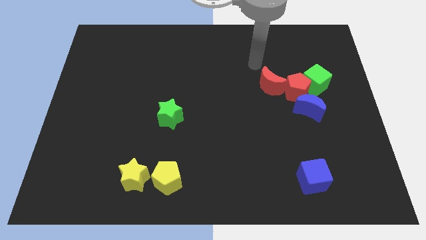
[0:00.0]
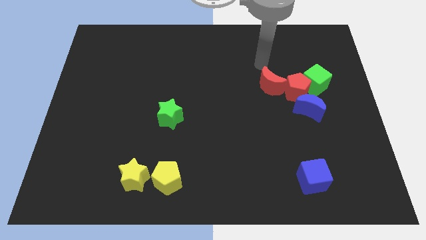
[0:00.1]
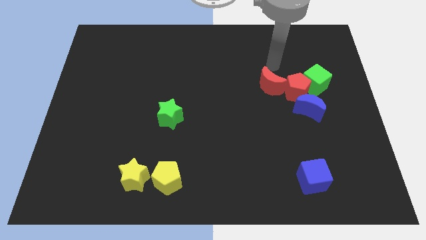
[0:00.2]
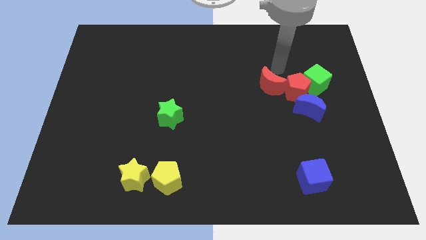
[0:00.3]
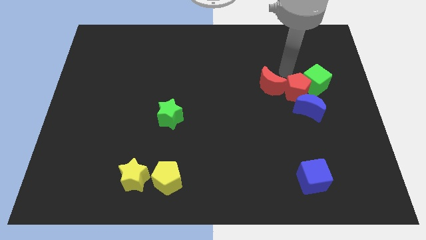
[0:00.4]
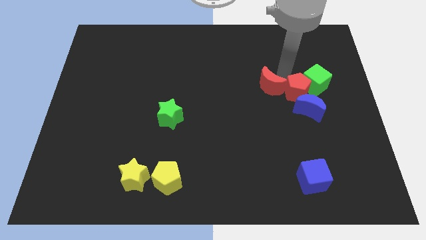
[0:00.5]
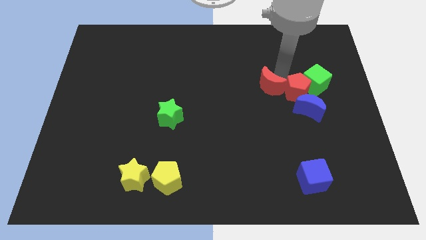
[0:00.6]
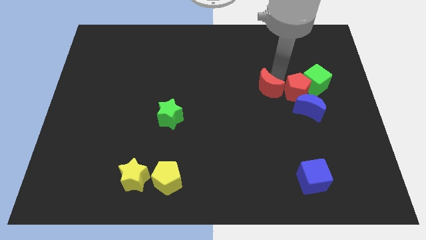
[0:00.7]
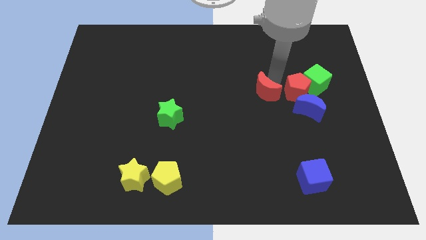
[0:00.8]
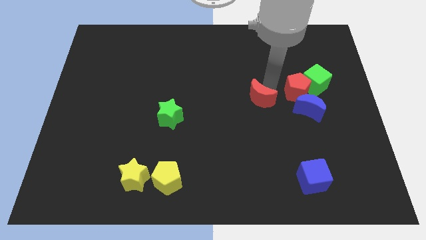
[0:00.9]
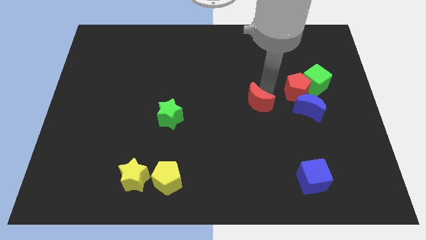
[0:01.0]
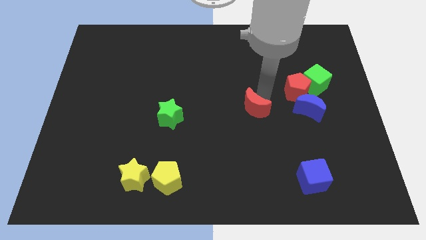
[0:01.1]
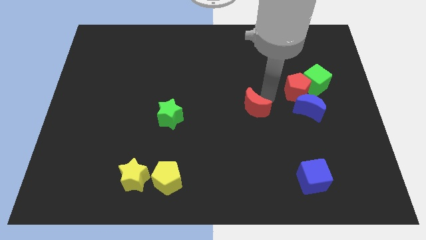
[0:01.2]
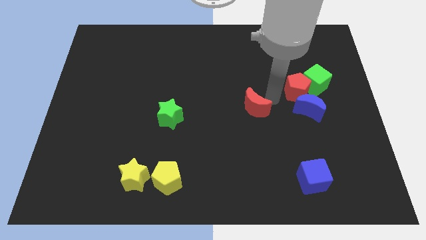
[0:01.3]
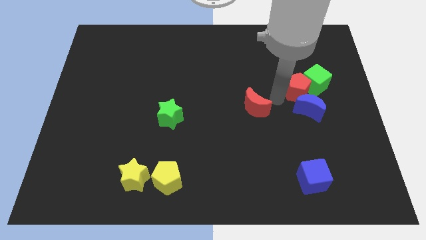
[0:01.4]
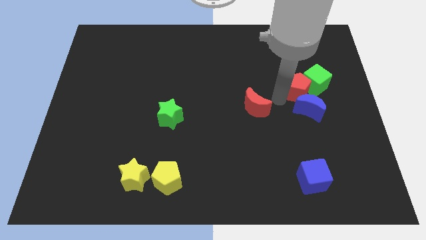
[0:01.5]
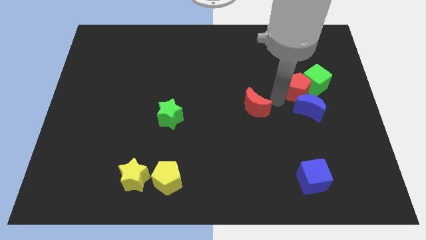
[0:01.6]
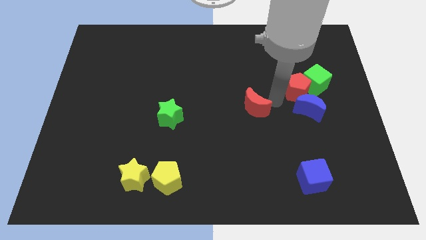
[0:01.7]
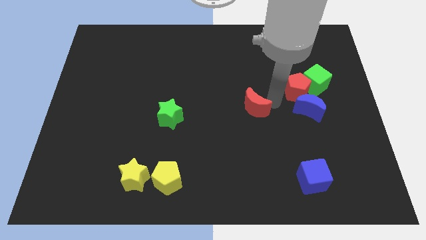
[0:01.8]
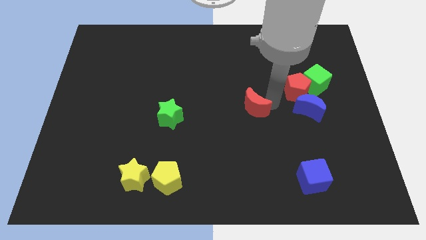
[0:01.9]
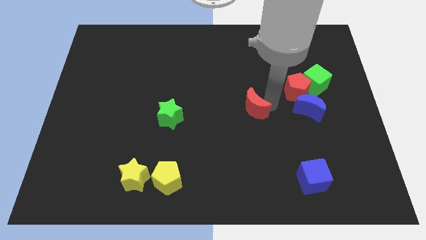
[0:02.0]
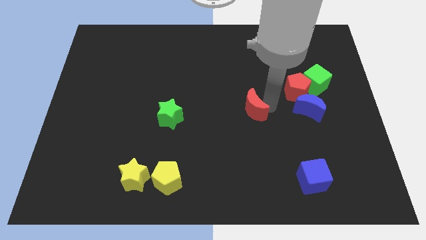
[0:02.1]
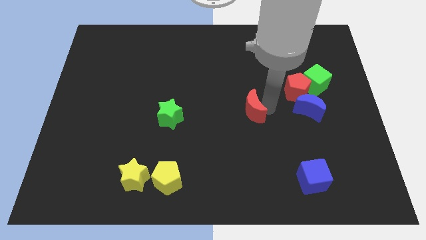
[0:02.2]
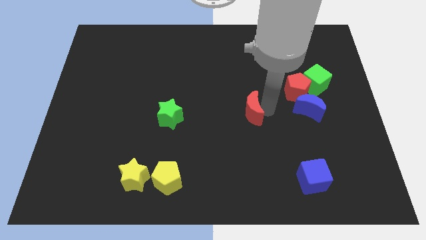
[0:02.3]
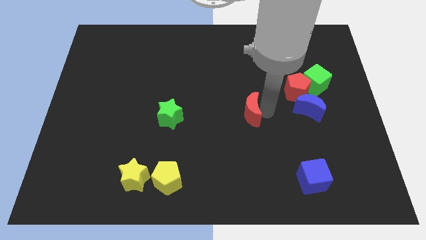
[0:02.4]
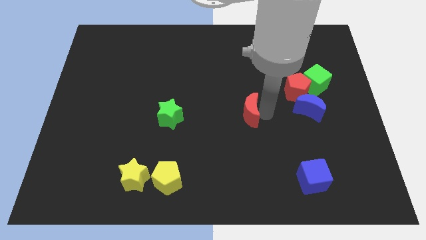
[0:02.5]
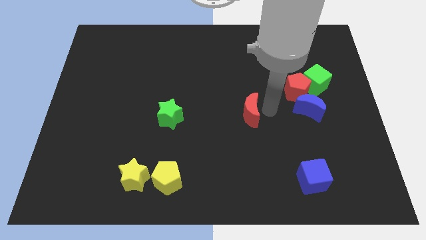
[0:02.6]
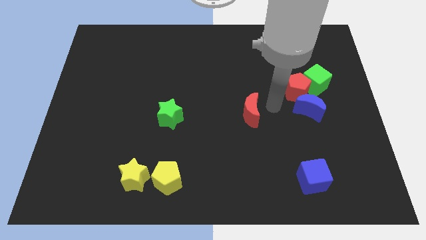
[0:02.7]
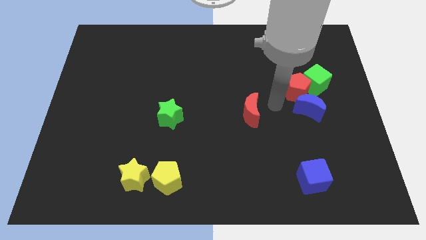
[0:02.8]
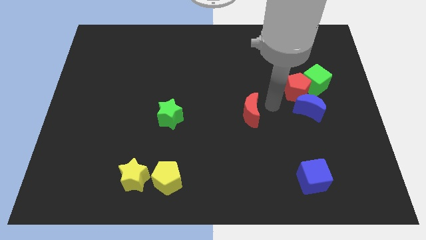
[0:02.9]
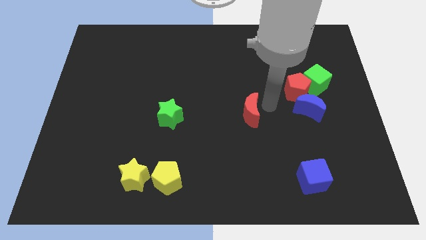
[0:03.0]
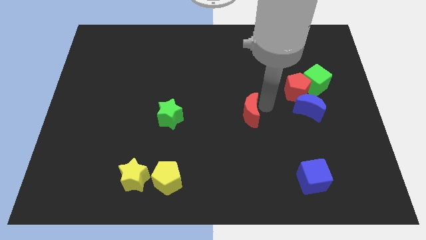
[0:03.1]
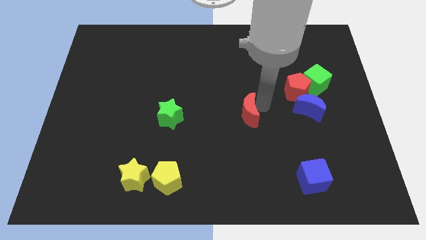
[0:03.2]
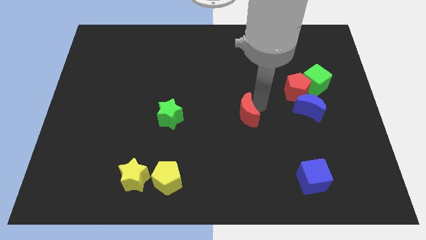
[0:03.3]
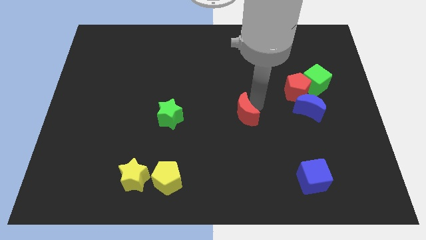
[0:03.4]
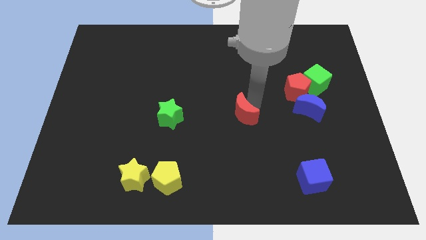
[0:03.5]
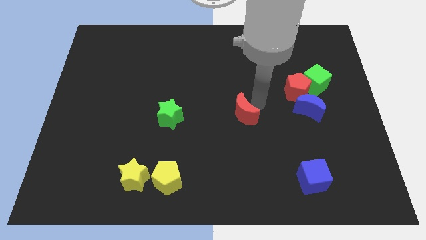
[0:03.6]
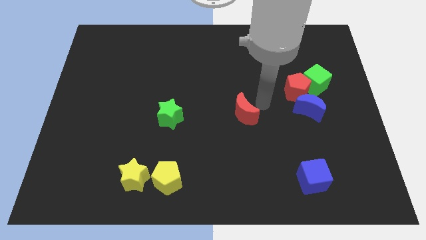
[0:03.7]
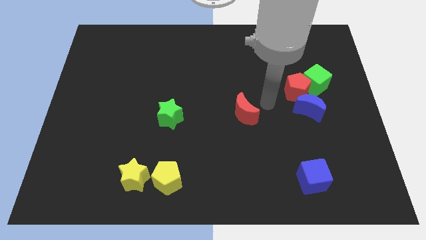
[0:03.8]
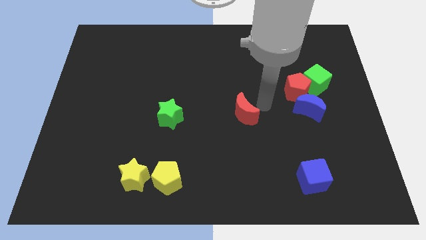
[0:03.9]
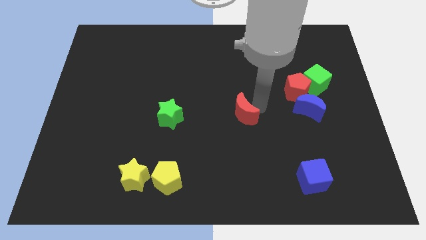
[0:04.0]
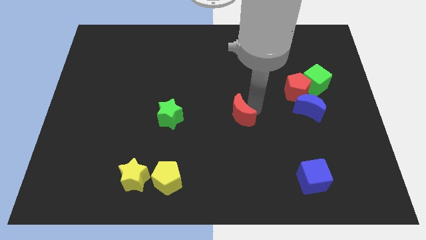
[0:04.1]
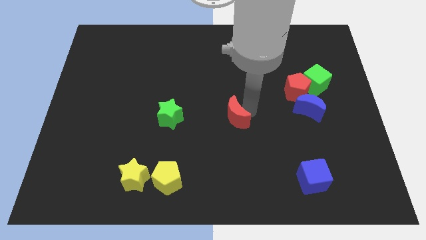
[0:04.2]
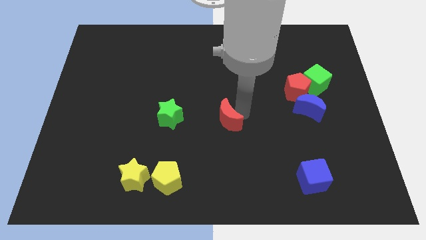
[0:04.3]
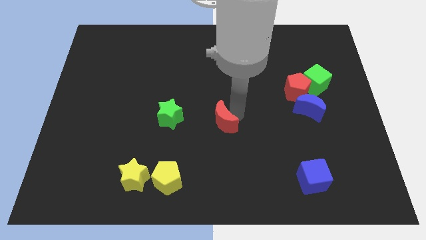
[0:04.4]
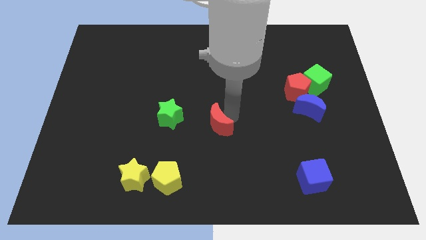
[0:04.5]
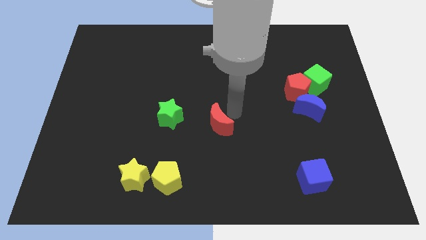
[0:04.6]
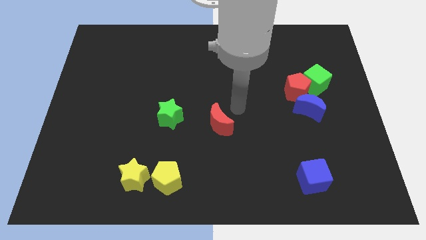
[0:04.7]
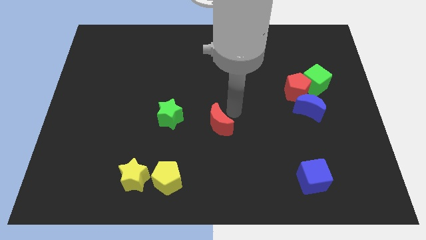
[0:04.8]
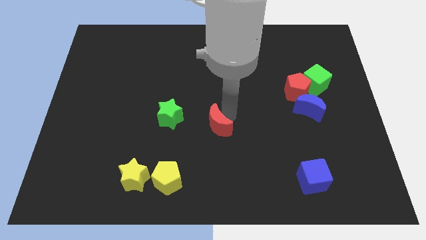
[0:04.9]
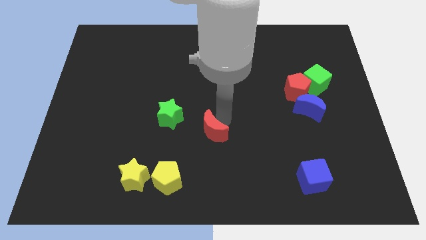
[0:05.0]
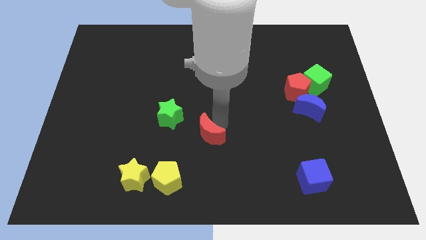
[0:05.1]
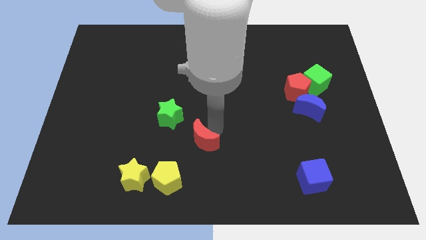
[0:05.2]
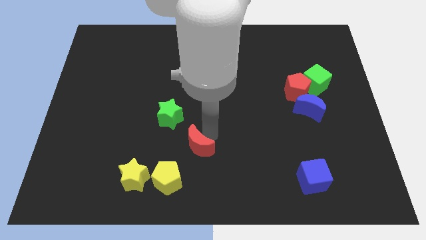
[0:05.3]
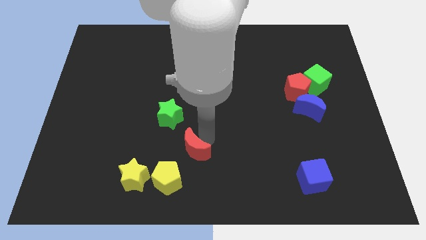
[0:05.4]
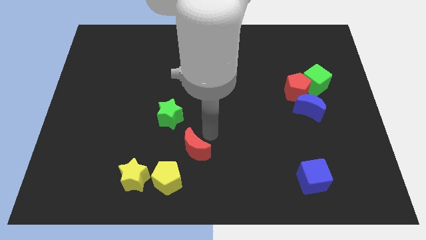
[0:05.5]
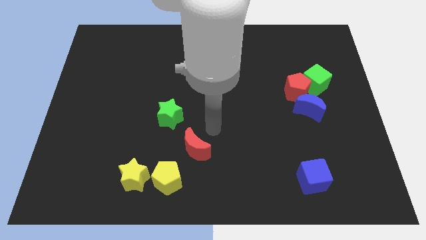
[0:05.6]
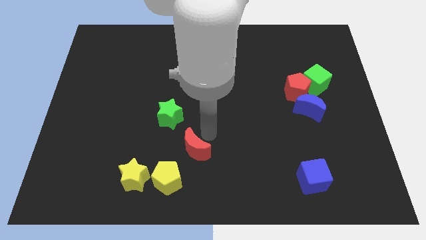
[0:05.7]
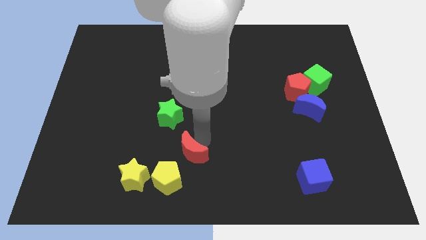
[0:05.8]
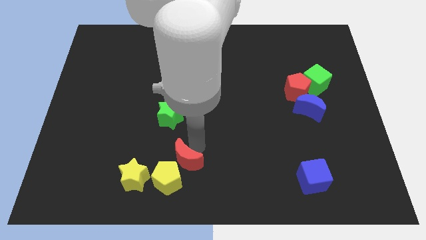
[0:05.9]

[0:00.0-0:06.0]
push the red moon close to the yellow pentagon
